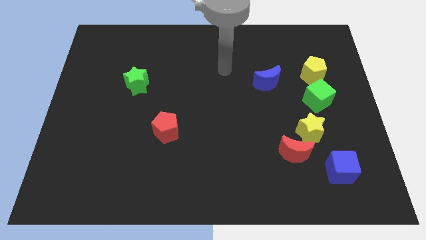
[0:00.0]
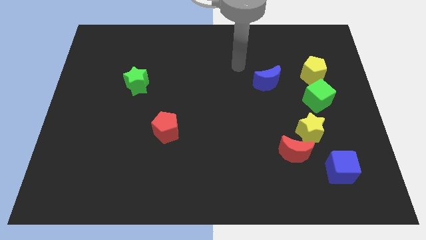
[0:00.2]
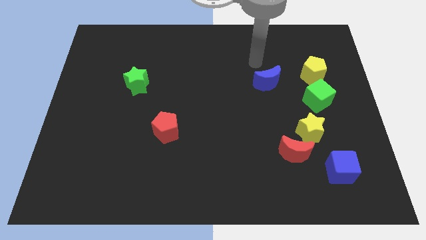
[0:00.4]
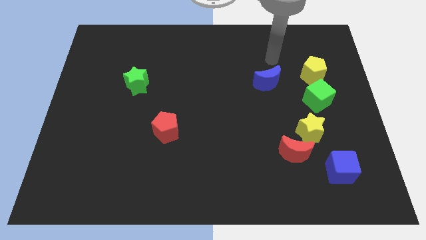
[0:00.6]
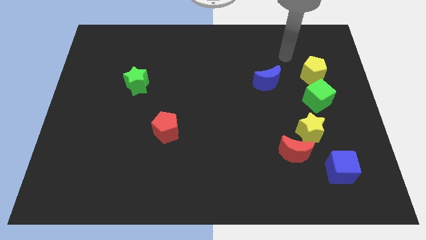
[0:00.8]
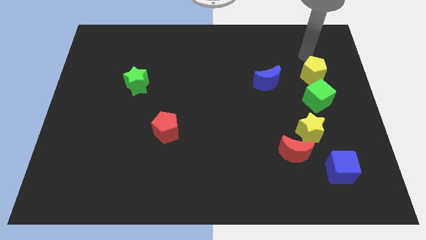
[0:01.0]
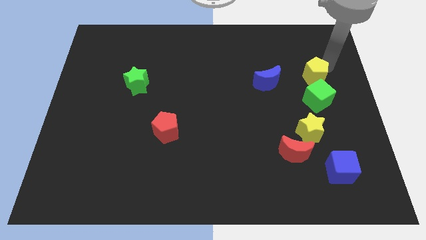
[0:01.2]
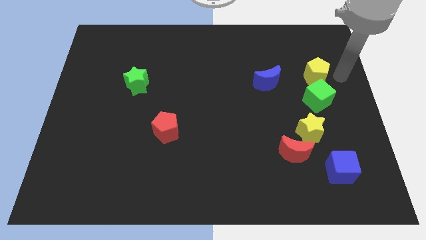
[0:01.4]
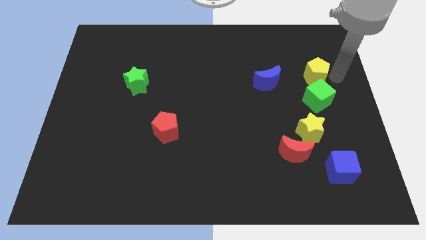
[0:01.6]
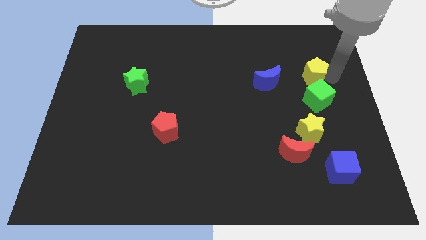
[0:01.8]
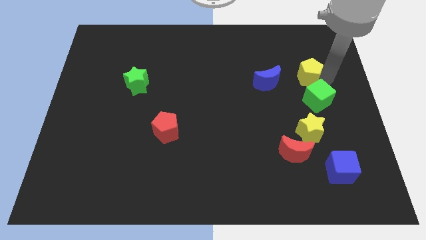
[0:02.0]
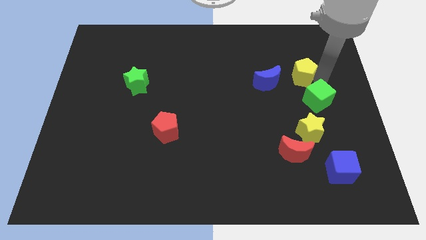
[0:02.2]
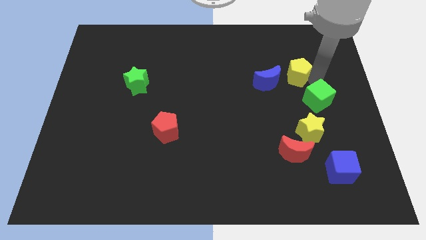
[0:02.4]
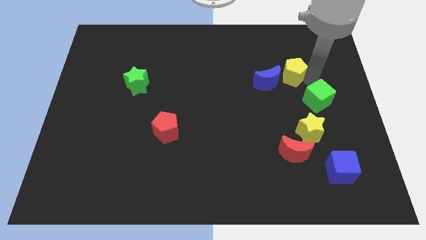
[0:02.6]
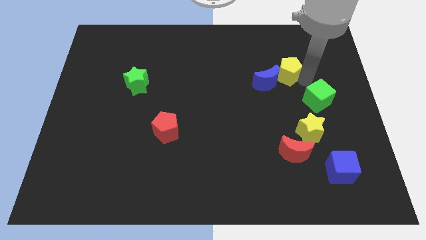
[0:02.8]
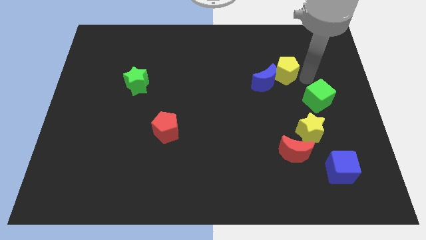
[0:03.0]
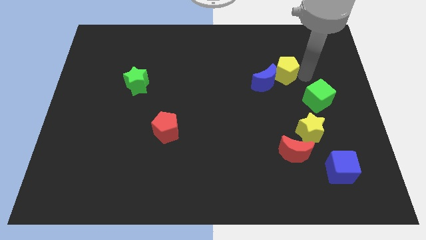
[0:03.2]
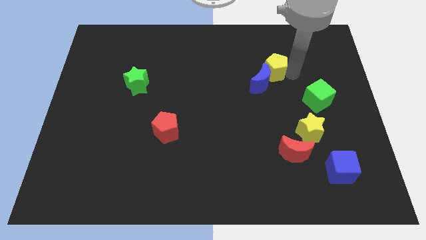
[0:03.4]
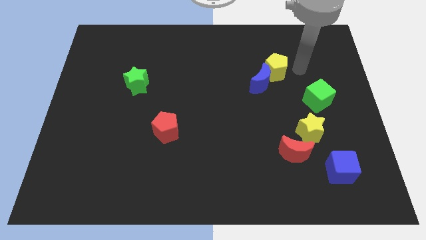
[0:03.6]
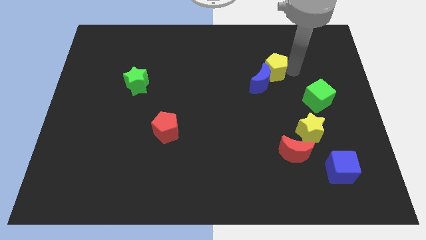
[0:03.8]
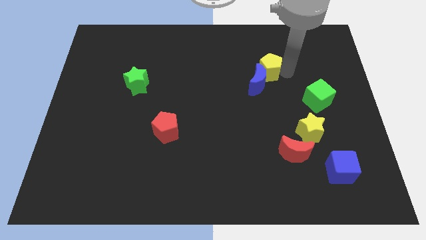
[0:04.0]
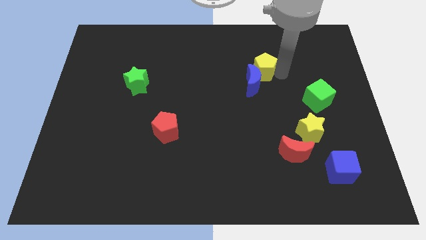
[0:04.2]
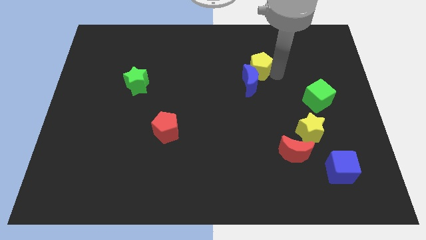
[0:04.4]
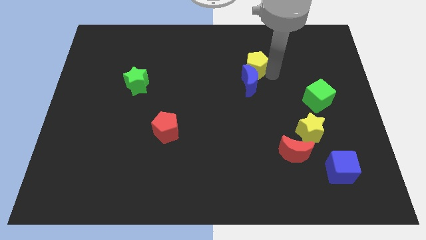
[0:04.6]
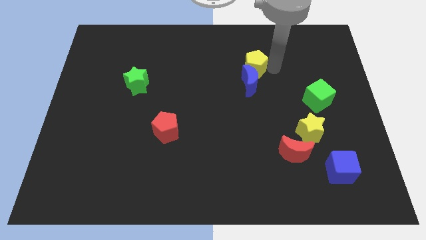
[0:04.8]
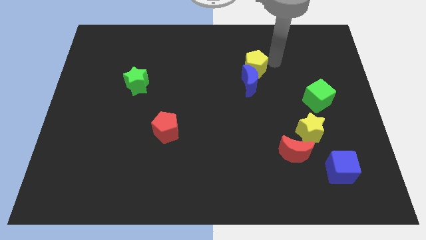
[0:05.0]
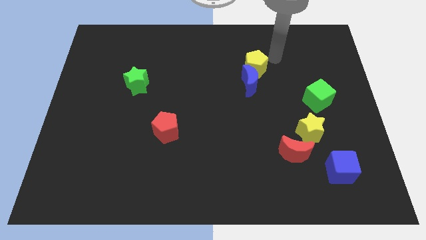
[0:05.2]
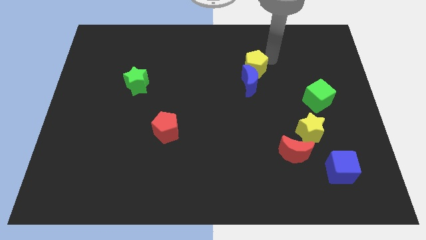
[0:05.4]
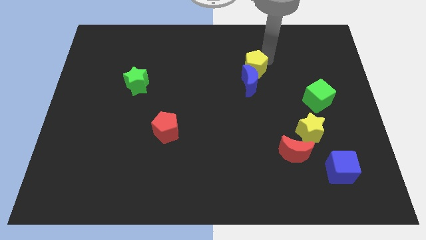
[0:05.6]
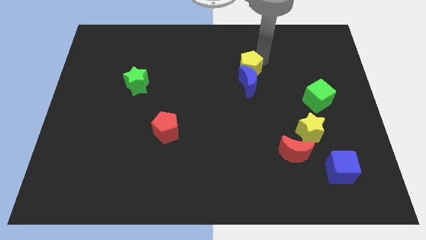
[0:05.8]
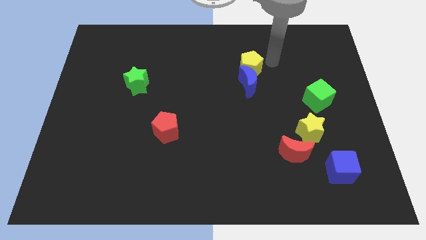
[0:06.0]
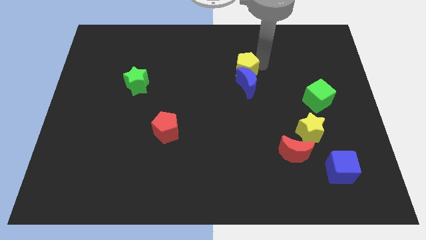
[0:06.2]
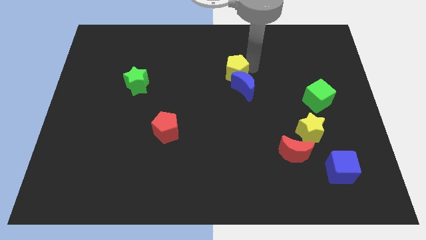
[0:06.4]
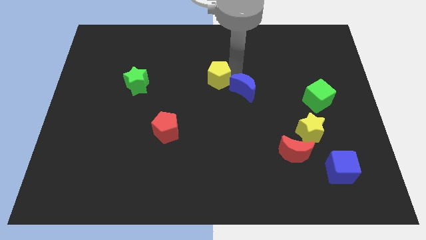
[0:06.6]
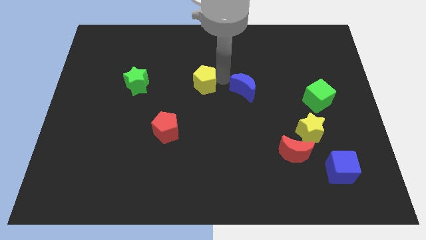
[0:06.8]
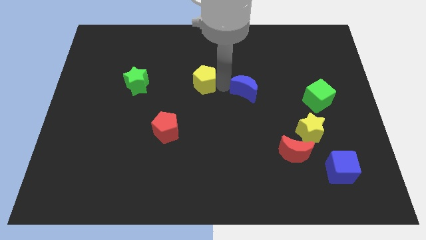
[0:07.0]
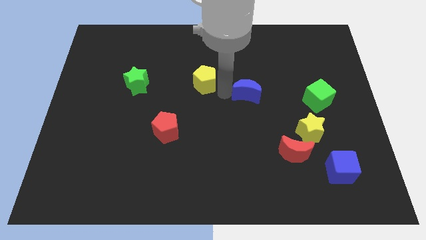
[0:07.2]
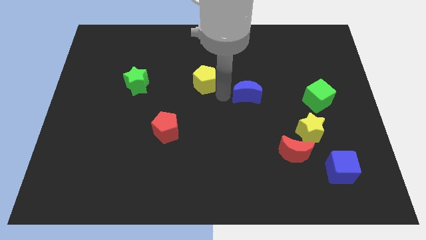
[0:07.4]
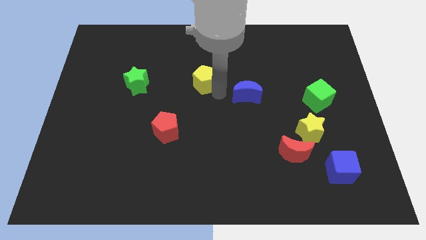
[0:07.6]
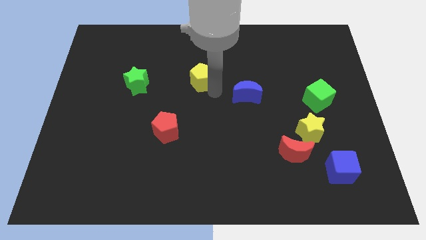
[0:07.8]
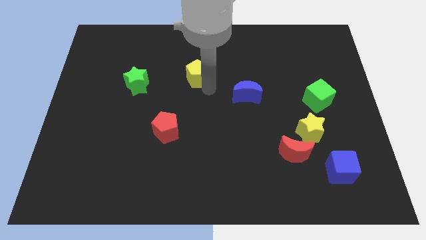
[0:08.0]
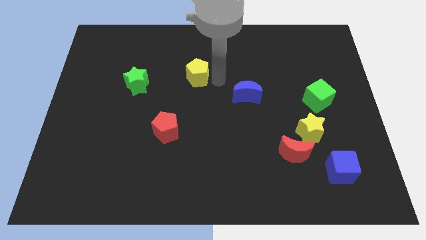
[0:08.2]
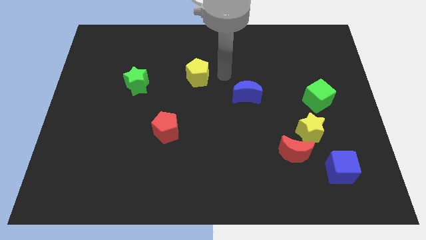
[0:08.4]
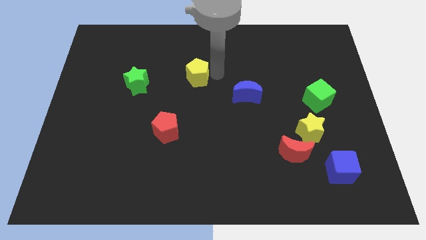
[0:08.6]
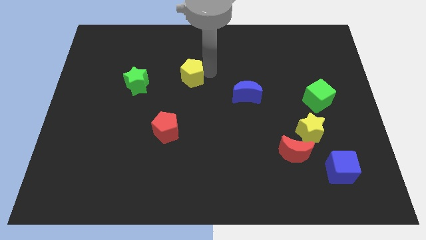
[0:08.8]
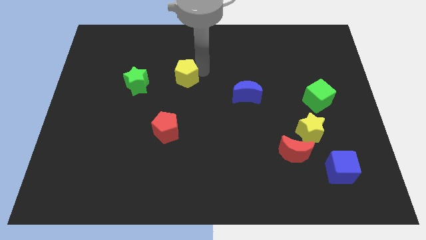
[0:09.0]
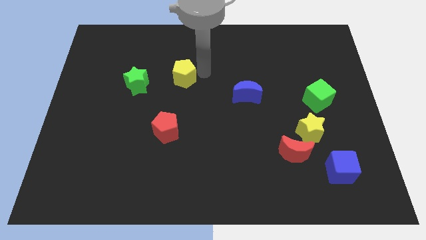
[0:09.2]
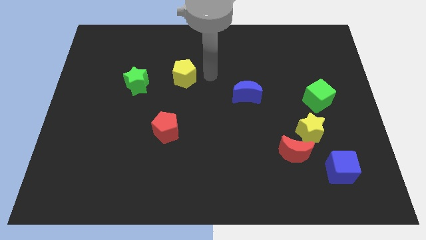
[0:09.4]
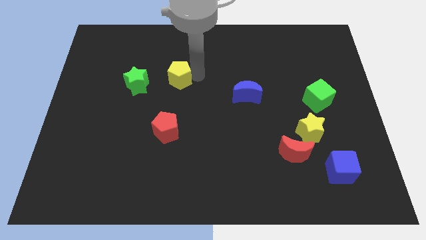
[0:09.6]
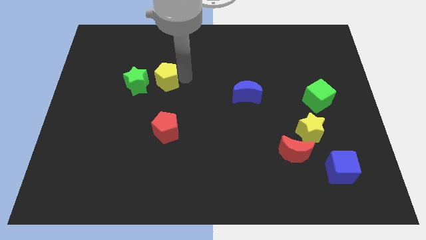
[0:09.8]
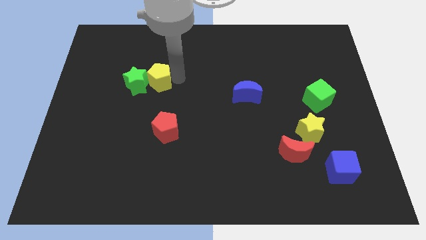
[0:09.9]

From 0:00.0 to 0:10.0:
push the yellow pentagon close to the green star

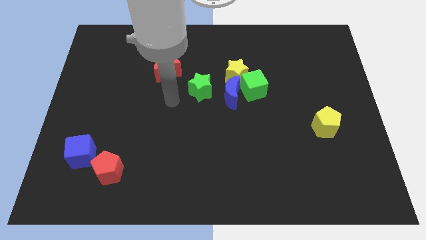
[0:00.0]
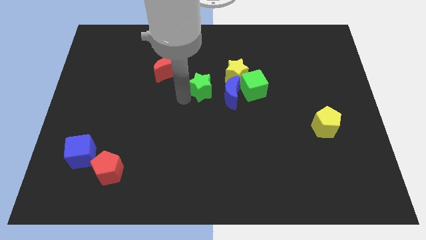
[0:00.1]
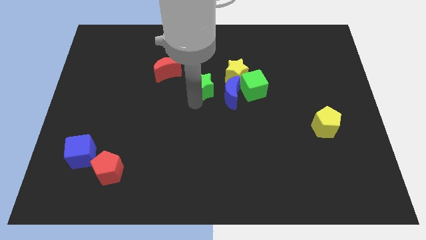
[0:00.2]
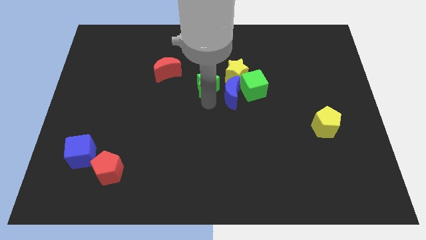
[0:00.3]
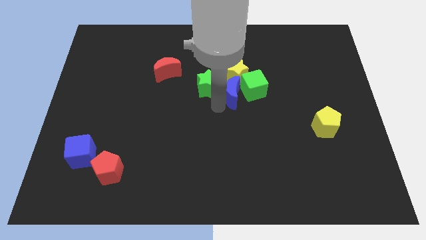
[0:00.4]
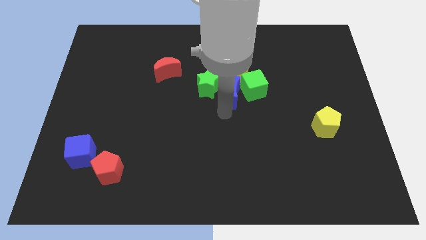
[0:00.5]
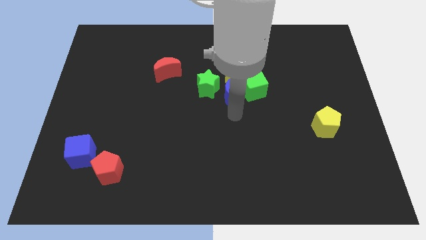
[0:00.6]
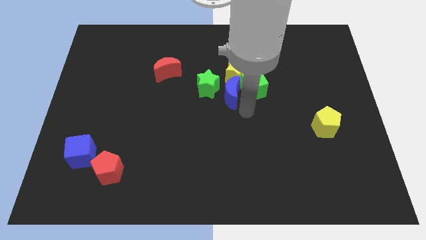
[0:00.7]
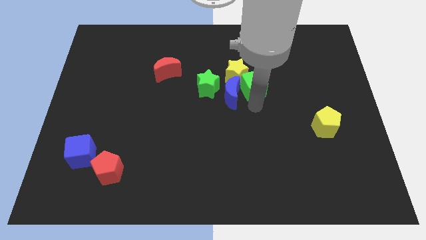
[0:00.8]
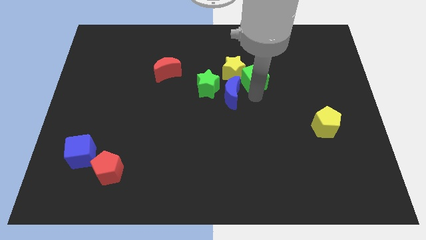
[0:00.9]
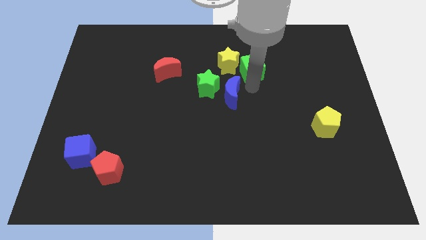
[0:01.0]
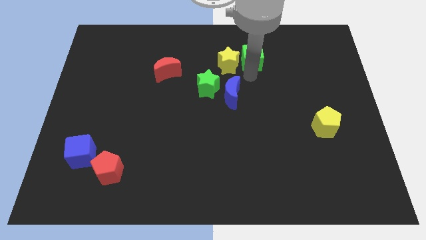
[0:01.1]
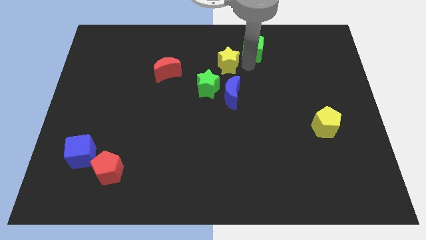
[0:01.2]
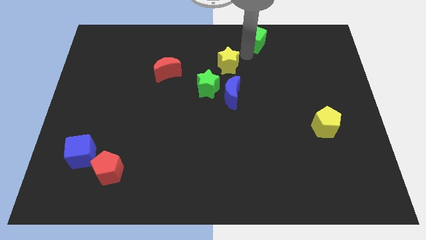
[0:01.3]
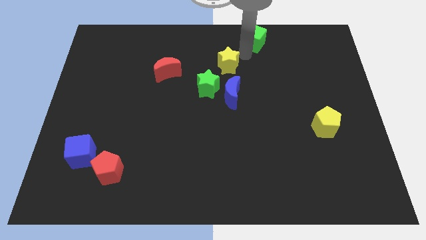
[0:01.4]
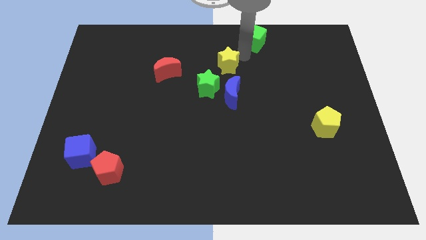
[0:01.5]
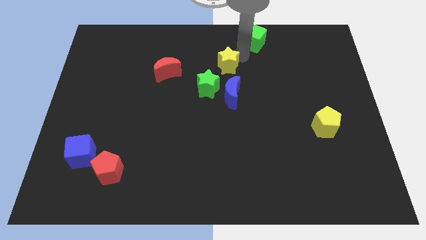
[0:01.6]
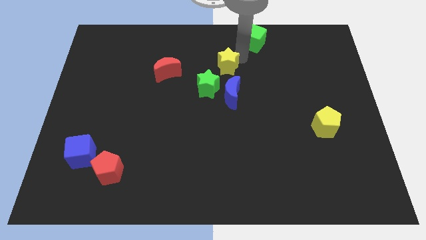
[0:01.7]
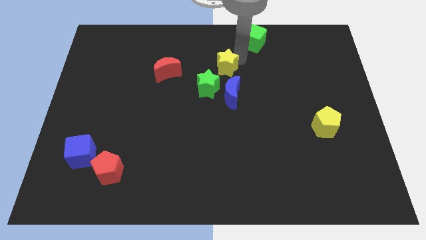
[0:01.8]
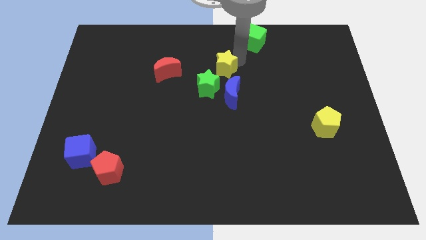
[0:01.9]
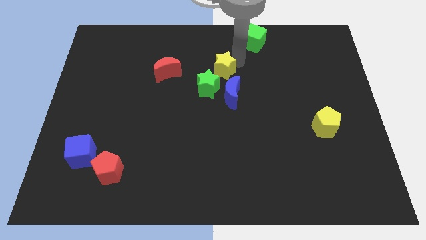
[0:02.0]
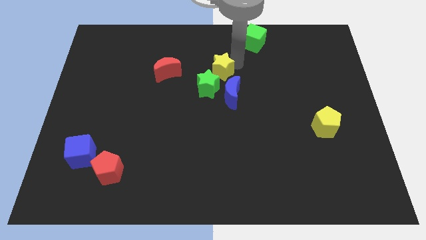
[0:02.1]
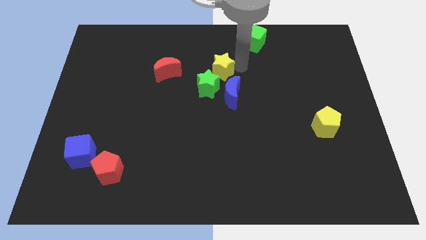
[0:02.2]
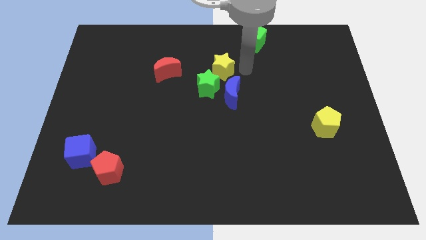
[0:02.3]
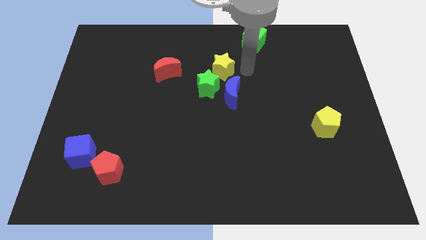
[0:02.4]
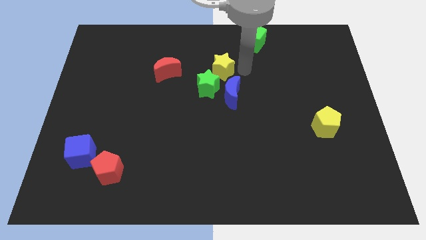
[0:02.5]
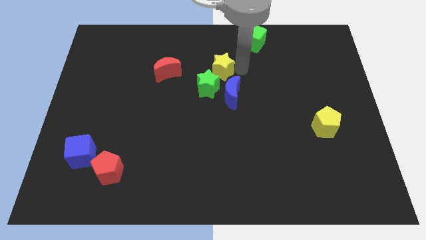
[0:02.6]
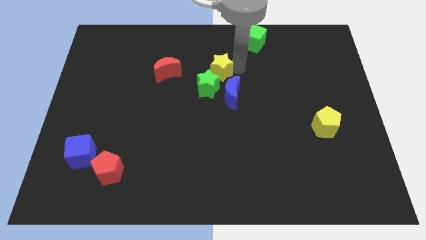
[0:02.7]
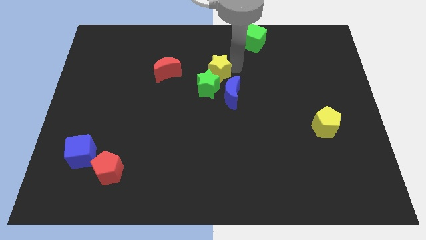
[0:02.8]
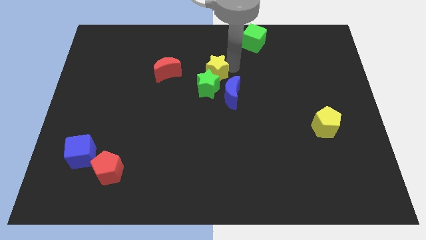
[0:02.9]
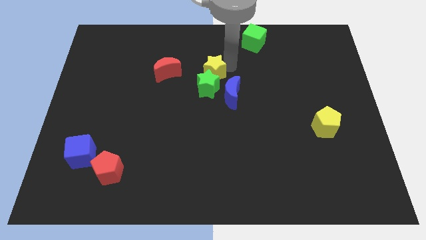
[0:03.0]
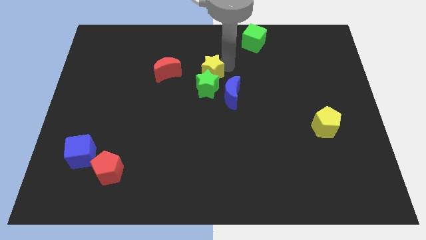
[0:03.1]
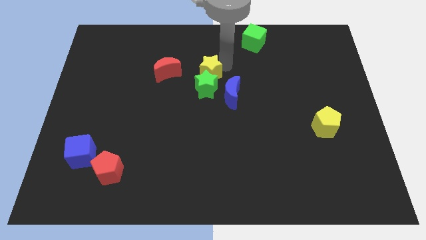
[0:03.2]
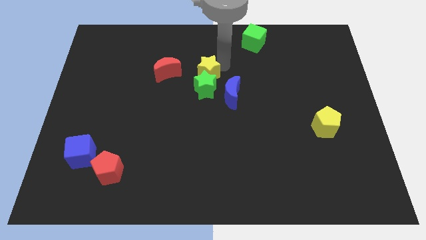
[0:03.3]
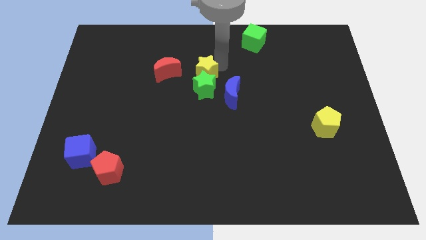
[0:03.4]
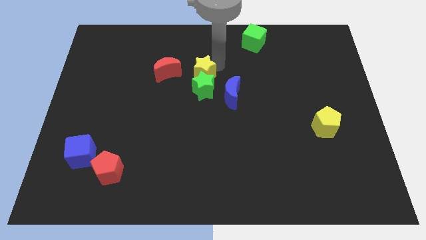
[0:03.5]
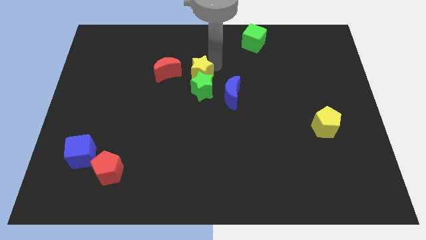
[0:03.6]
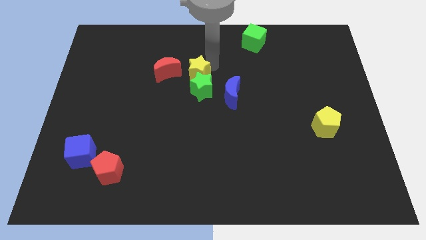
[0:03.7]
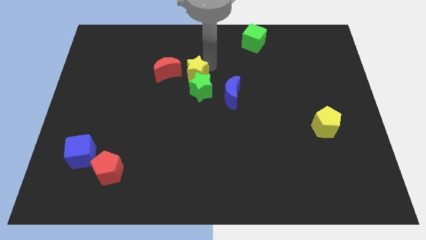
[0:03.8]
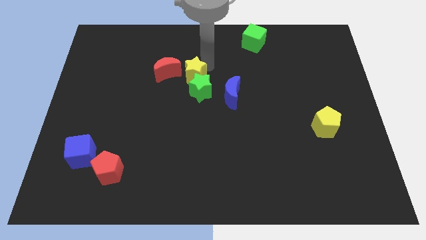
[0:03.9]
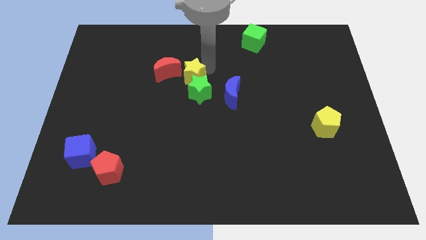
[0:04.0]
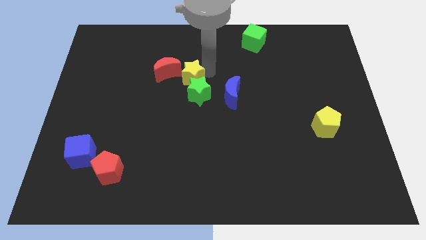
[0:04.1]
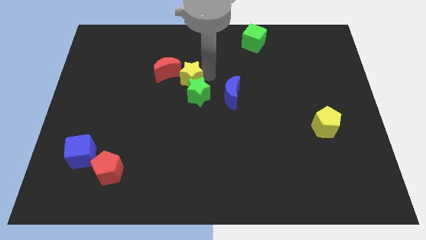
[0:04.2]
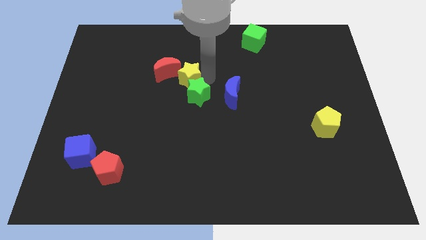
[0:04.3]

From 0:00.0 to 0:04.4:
slide the yellow star towards the red moon
